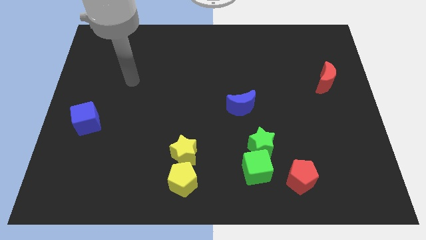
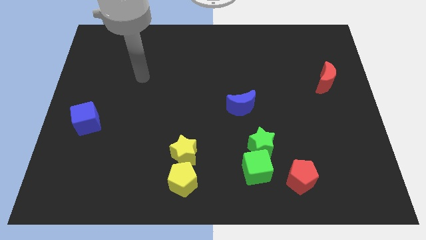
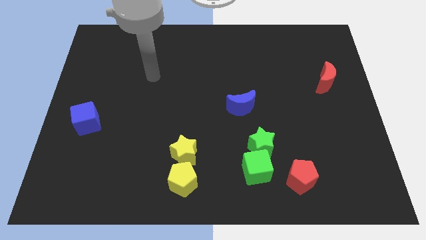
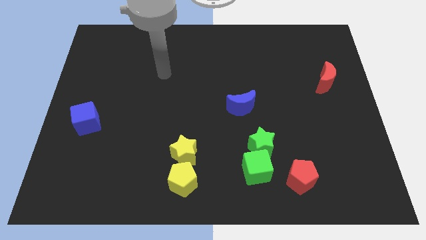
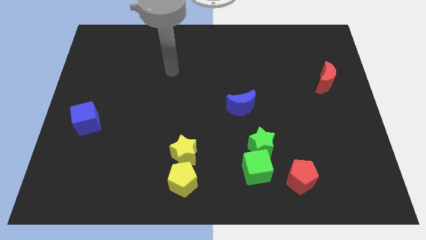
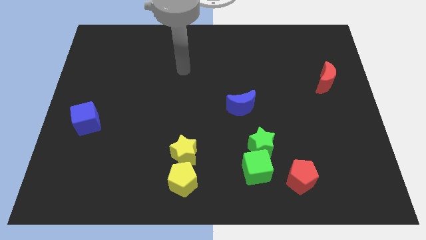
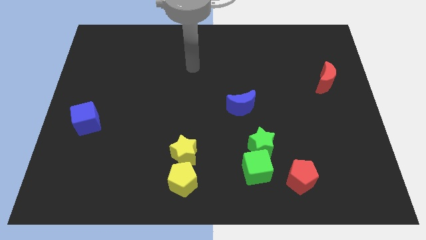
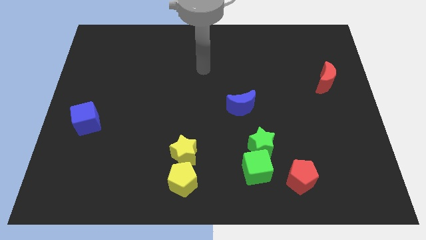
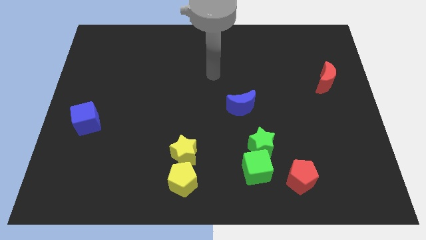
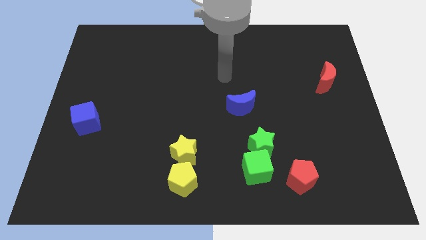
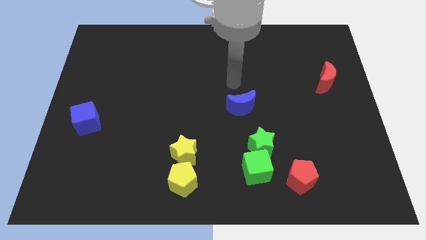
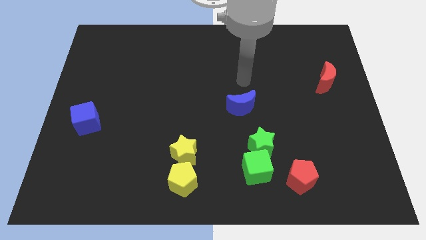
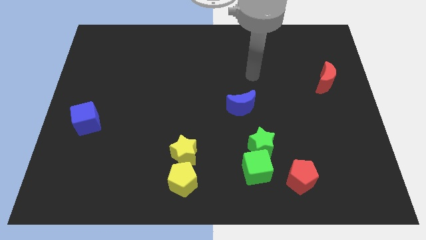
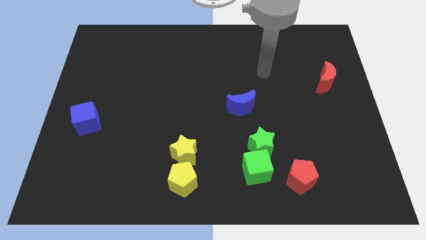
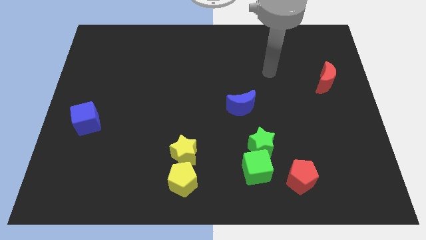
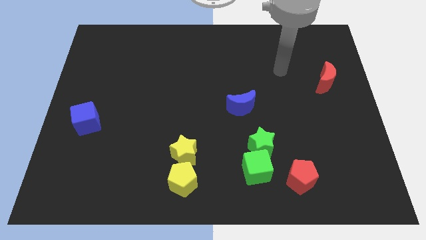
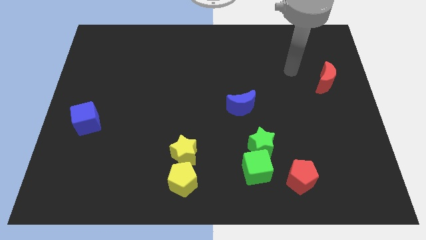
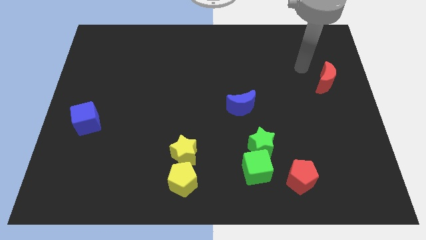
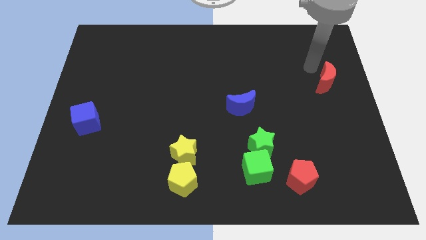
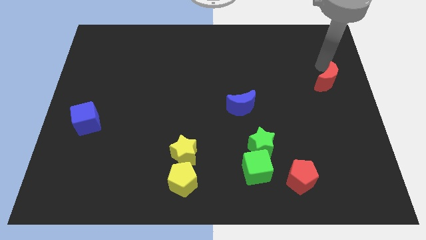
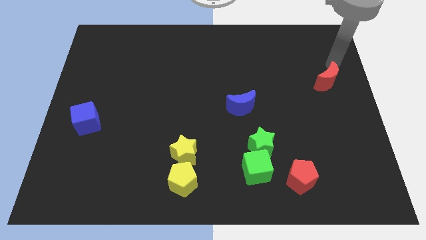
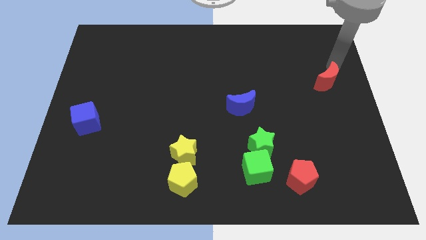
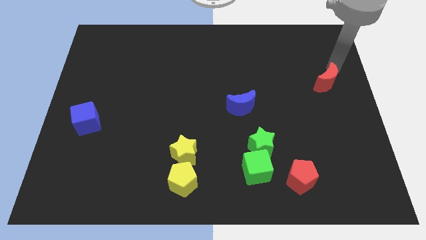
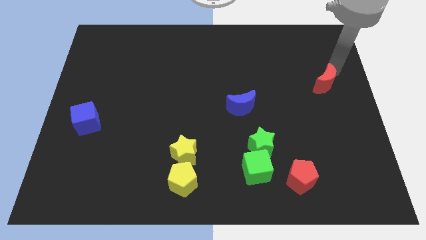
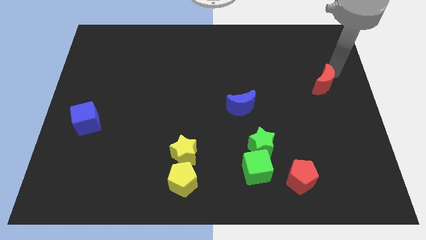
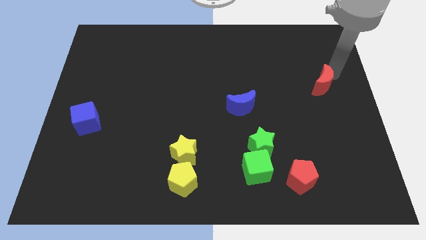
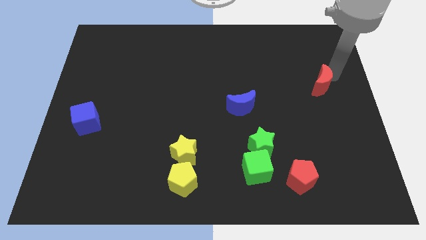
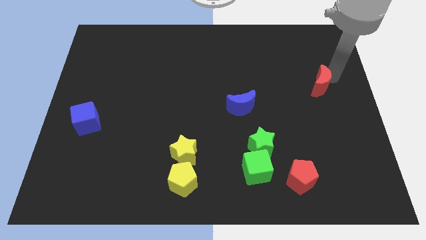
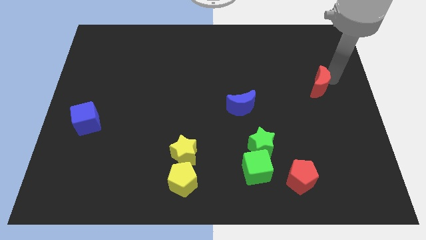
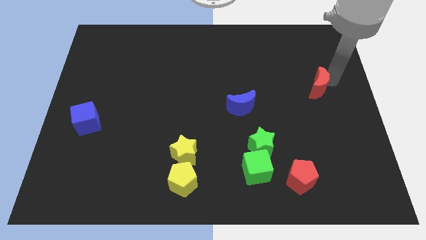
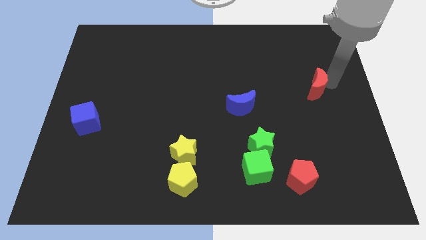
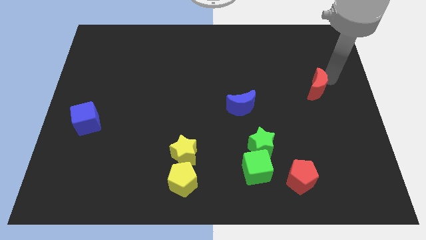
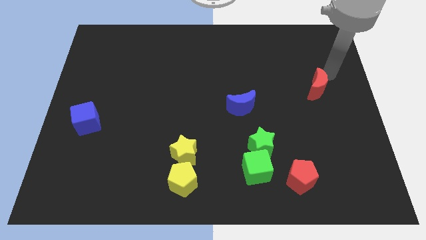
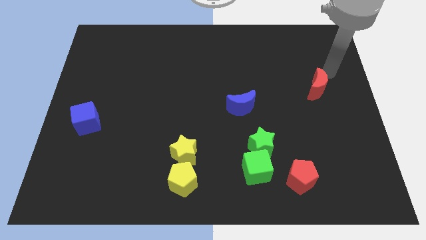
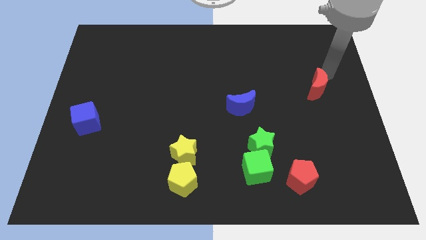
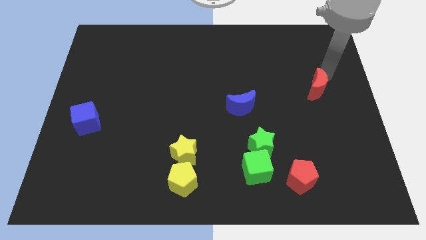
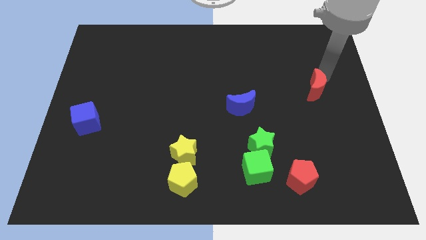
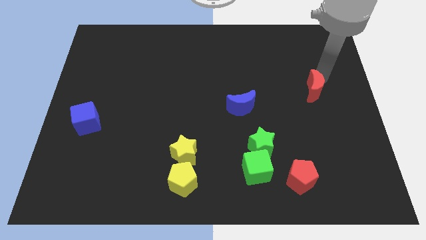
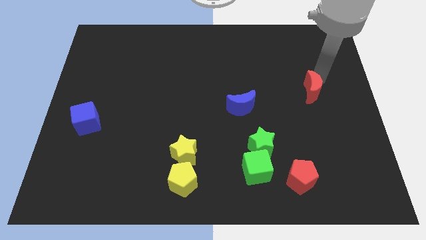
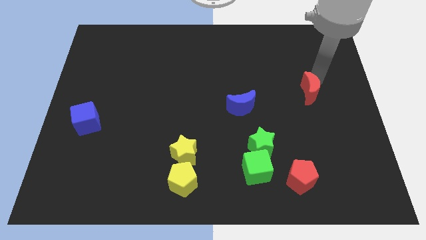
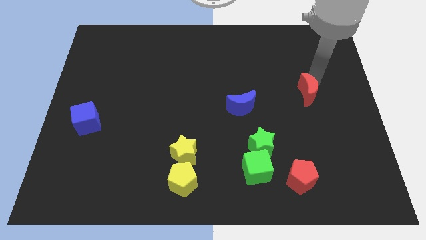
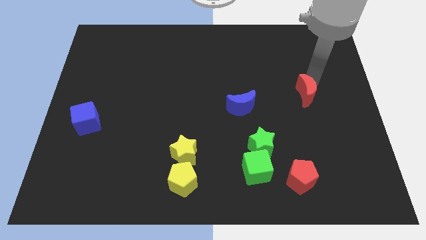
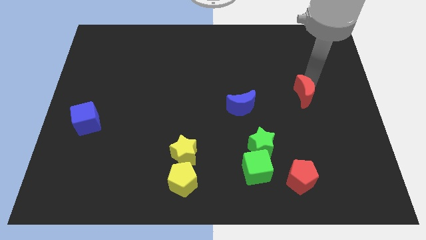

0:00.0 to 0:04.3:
slightly move the red moon downwards and left

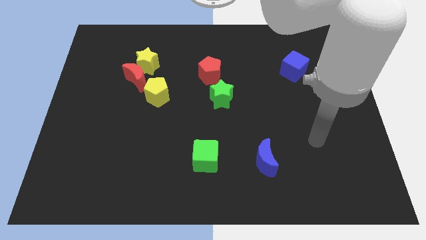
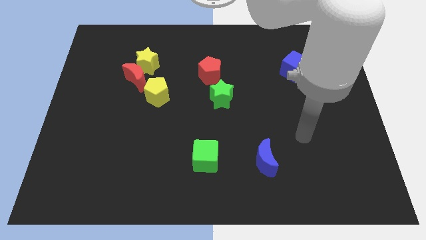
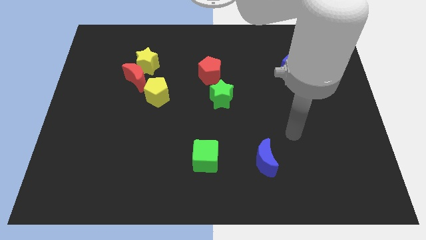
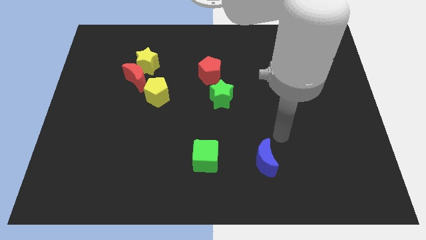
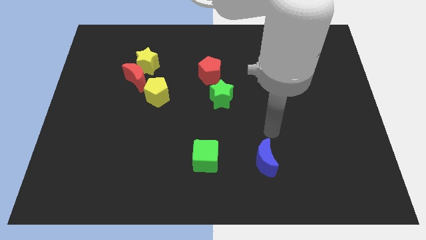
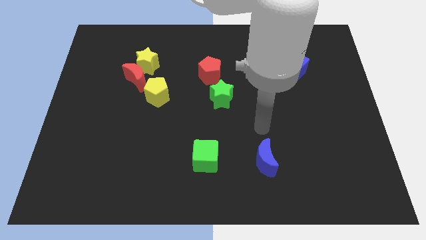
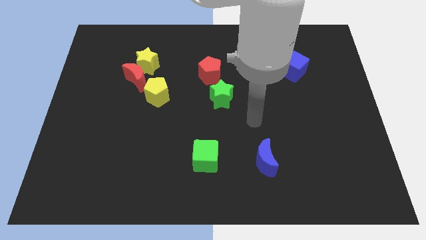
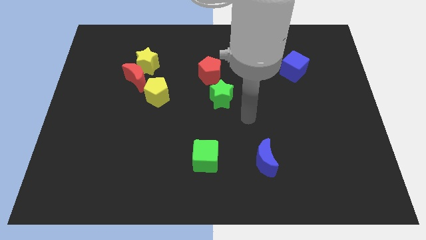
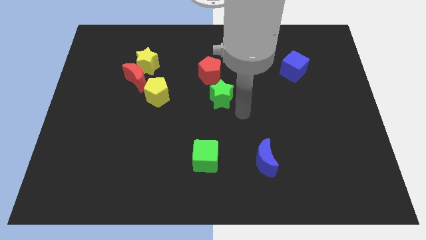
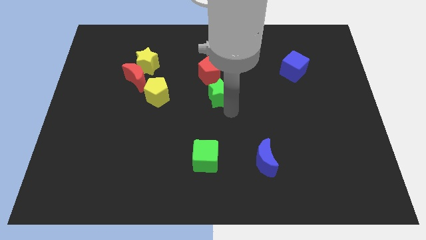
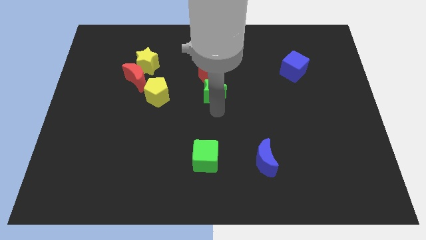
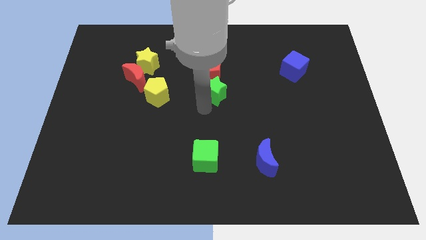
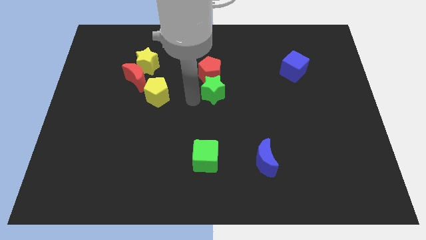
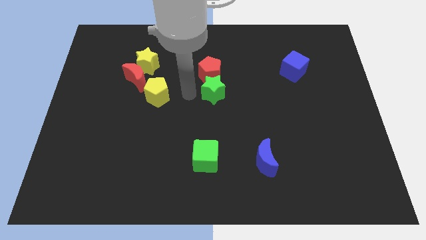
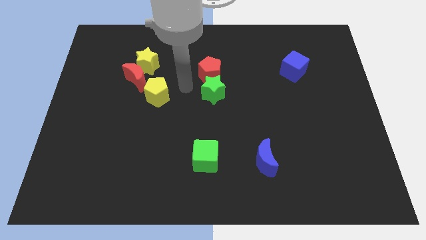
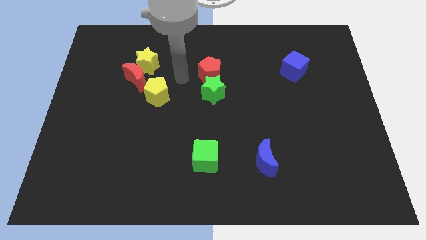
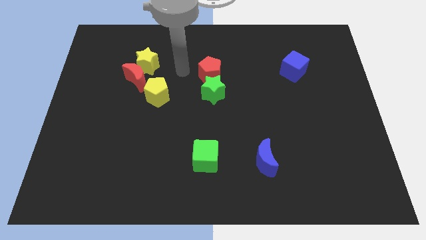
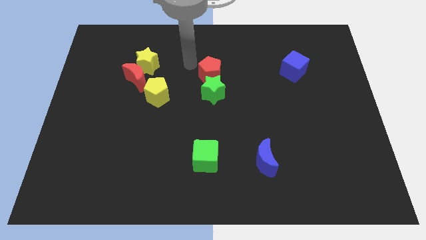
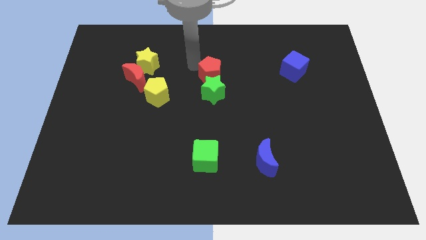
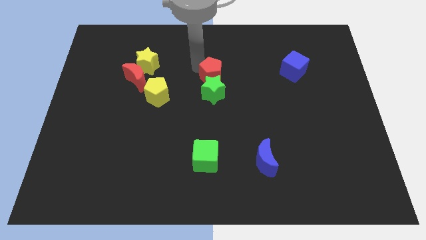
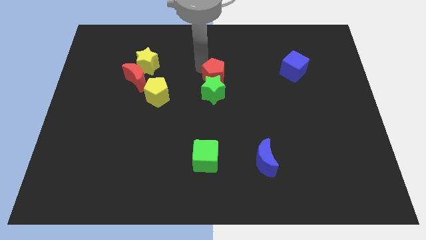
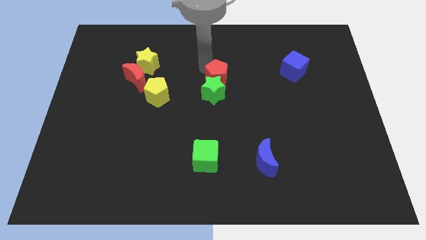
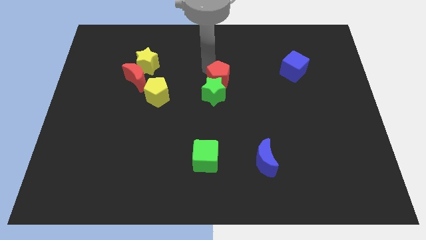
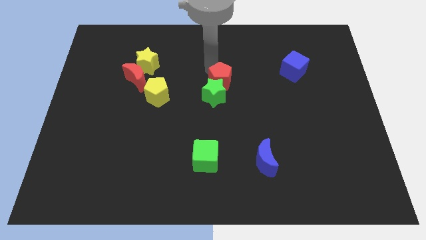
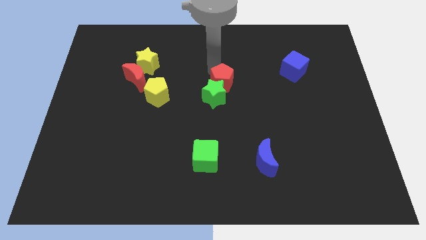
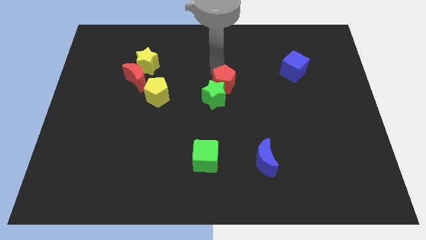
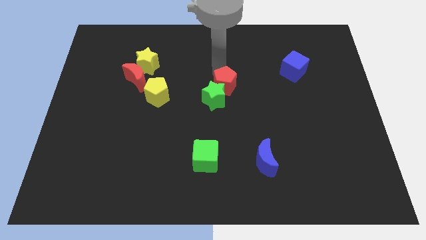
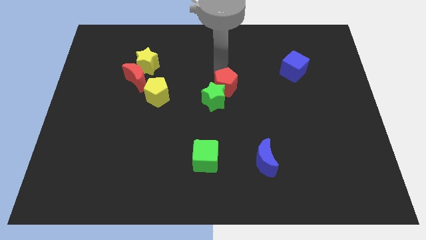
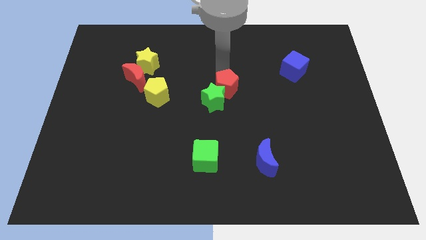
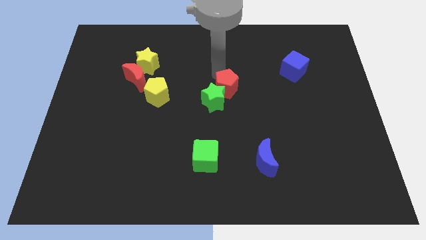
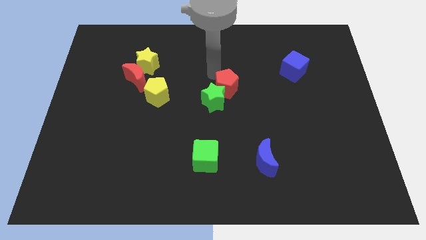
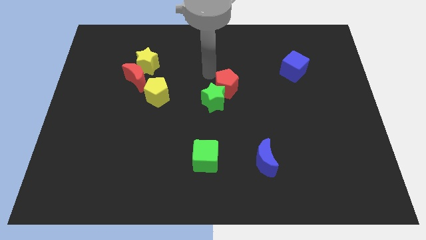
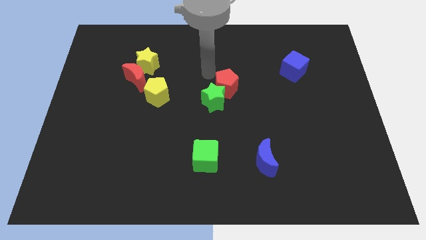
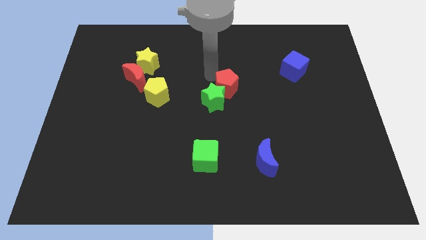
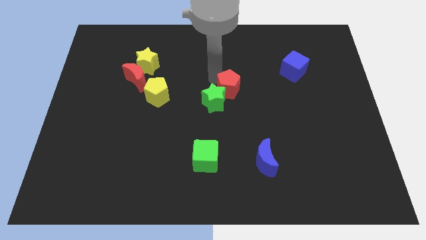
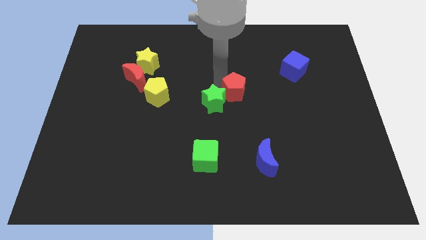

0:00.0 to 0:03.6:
push the red pentagon diagonally downwards and to the right a little bit
